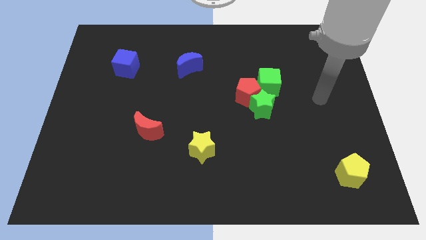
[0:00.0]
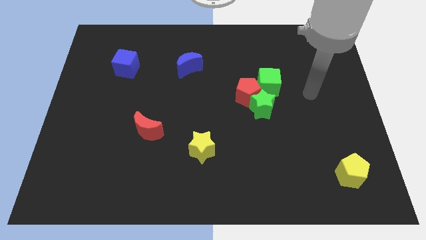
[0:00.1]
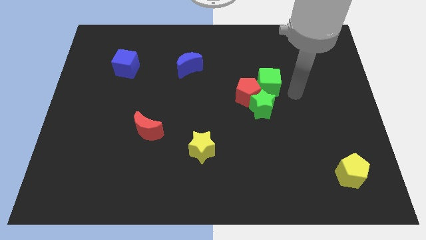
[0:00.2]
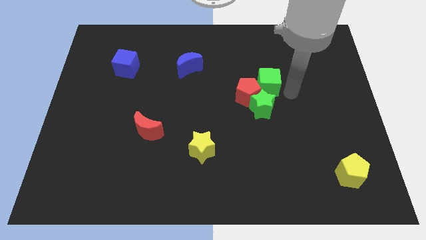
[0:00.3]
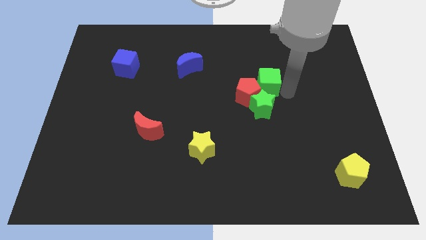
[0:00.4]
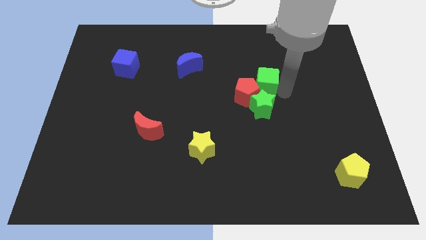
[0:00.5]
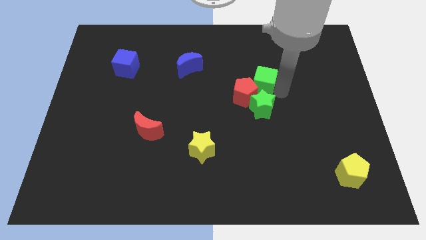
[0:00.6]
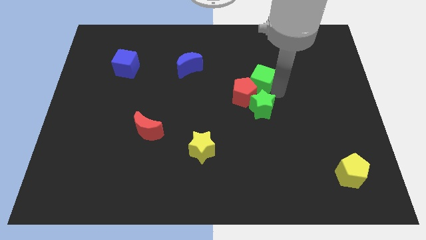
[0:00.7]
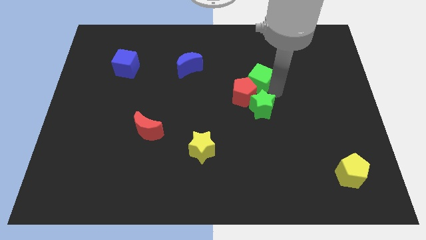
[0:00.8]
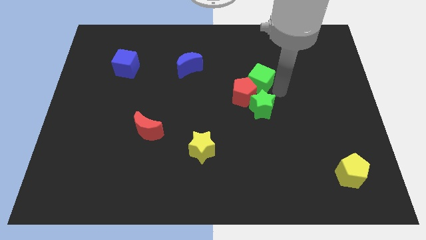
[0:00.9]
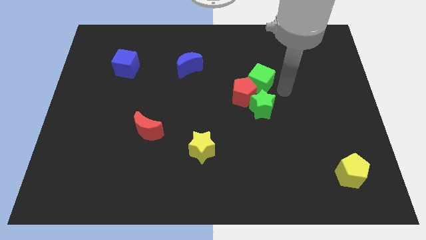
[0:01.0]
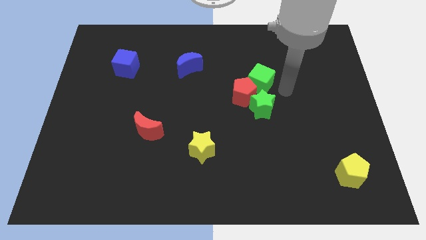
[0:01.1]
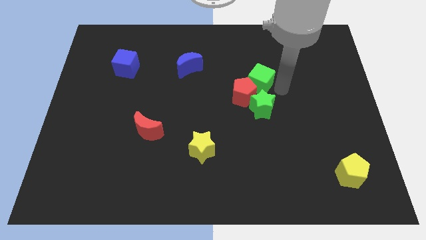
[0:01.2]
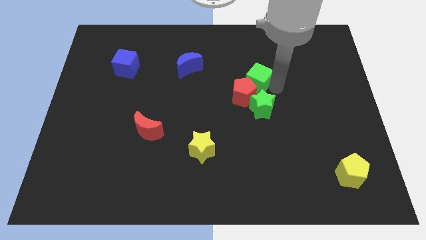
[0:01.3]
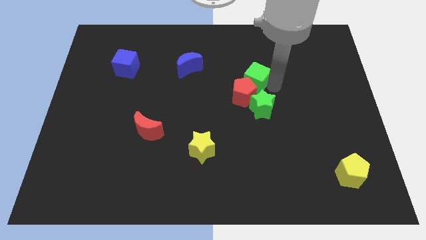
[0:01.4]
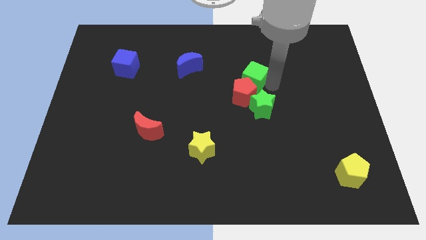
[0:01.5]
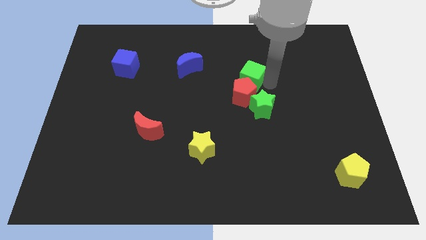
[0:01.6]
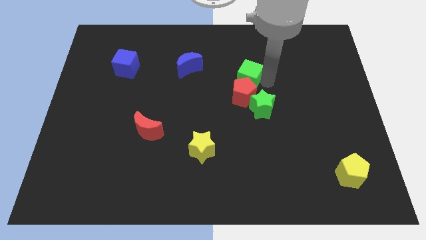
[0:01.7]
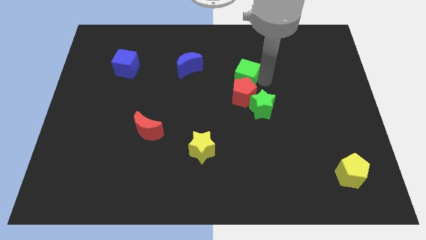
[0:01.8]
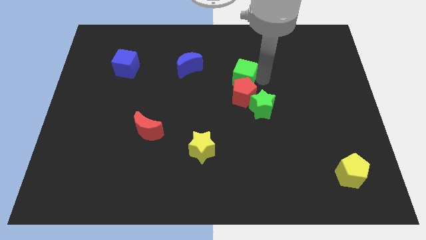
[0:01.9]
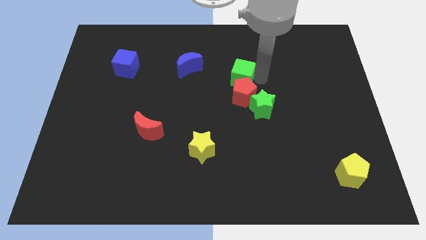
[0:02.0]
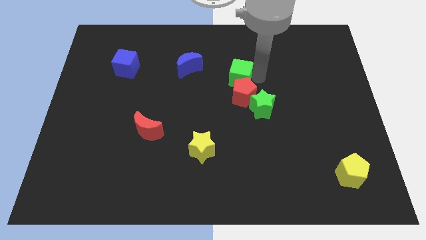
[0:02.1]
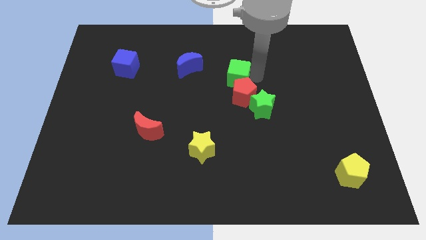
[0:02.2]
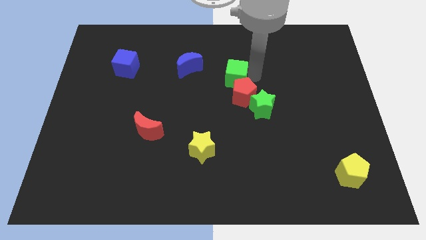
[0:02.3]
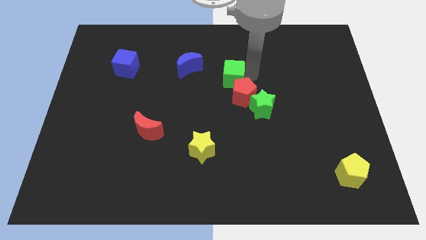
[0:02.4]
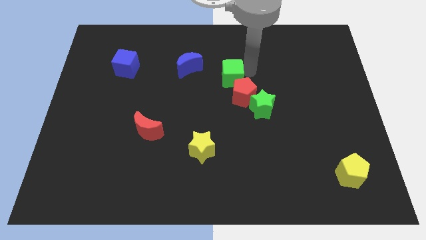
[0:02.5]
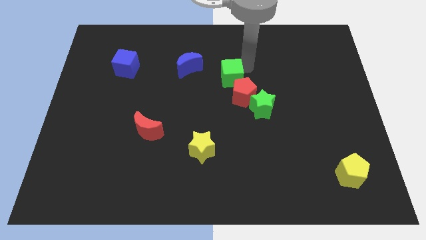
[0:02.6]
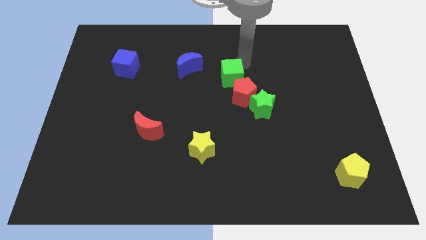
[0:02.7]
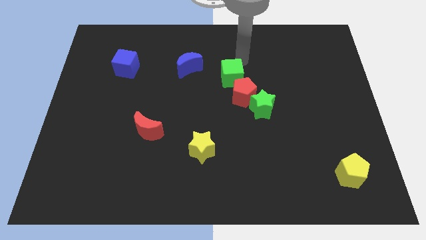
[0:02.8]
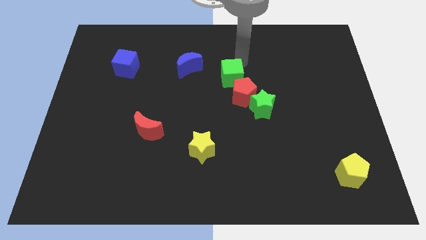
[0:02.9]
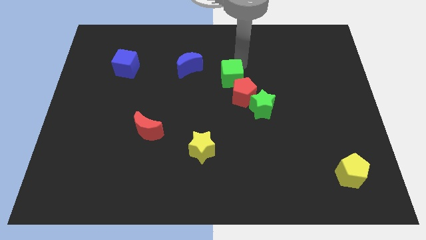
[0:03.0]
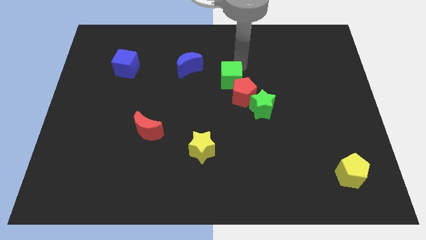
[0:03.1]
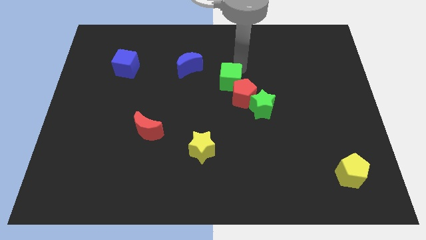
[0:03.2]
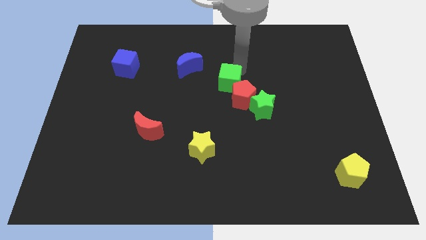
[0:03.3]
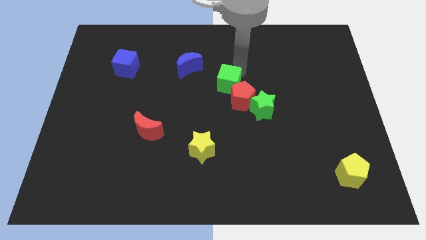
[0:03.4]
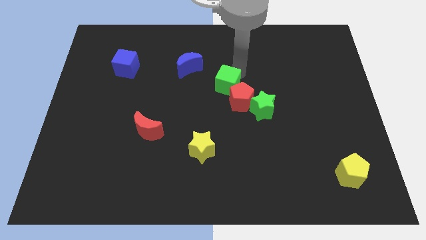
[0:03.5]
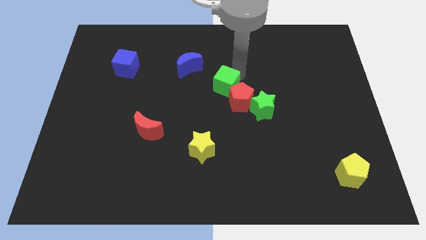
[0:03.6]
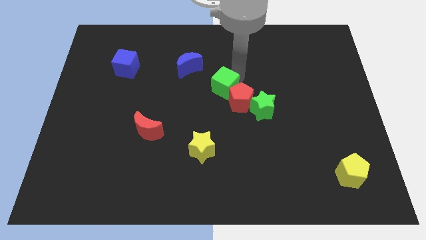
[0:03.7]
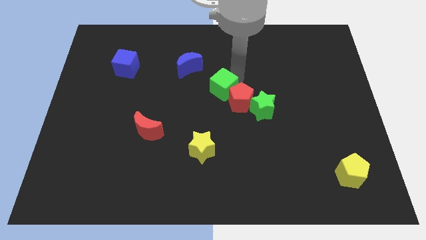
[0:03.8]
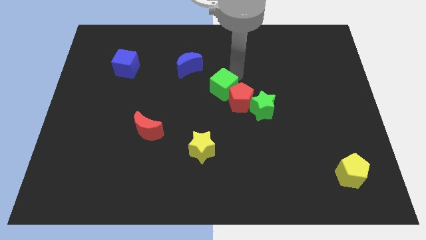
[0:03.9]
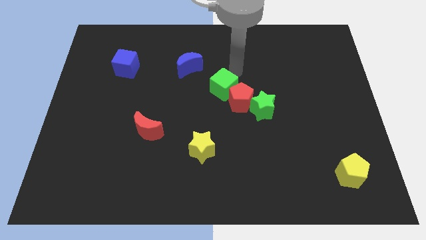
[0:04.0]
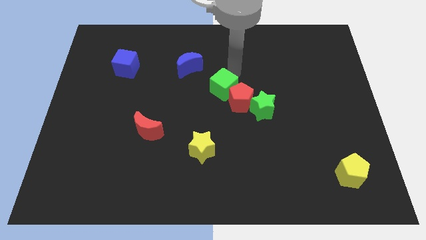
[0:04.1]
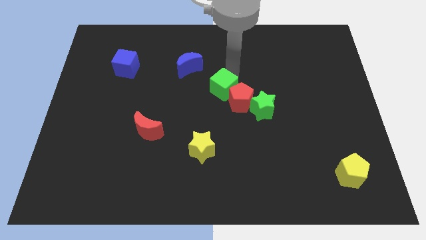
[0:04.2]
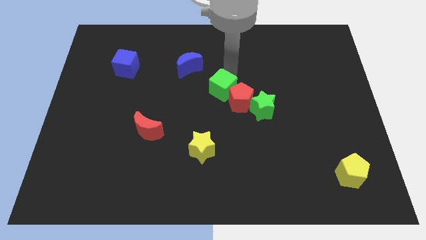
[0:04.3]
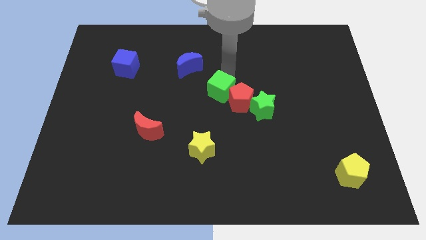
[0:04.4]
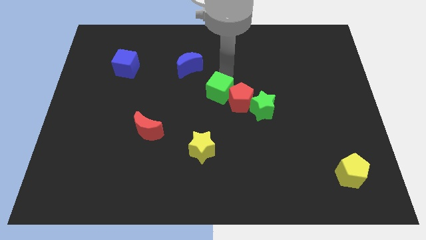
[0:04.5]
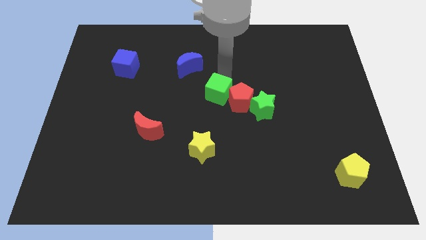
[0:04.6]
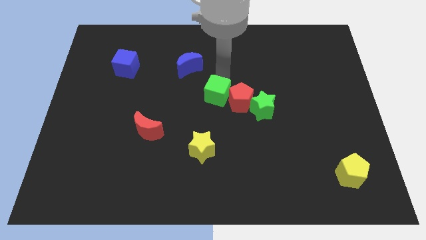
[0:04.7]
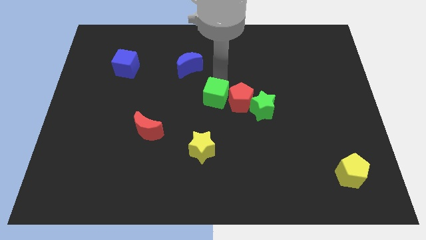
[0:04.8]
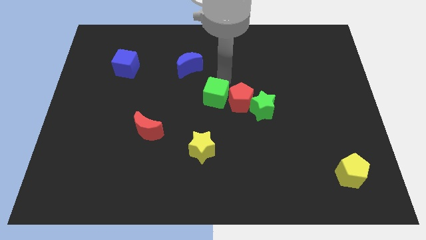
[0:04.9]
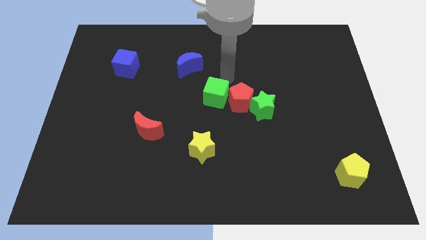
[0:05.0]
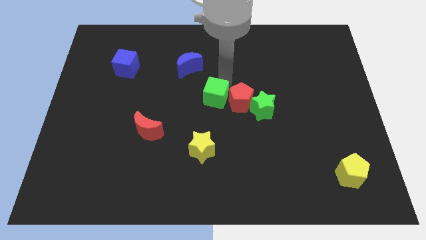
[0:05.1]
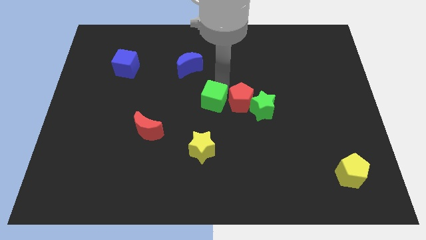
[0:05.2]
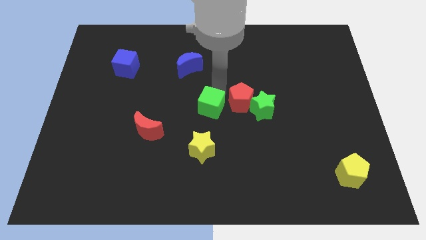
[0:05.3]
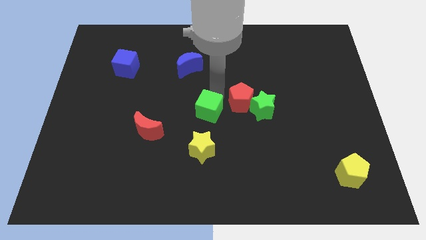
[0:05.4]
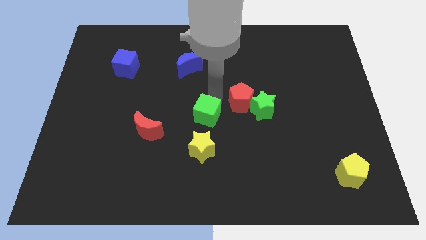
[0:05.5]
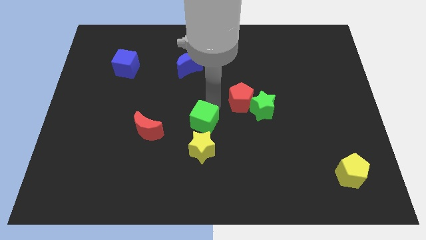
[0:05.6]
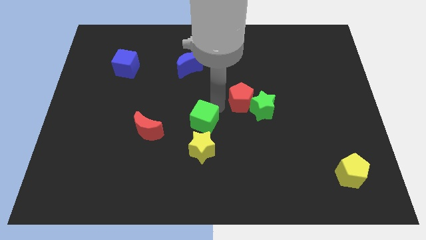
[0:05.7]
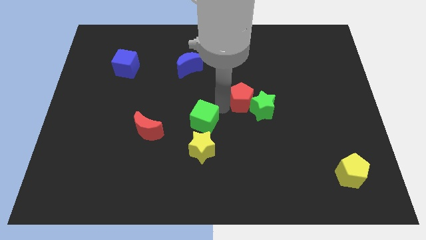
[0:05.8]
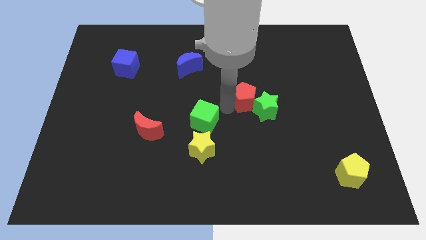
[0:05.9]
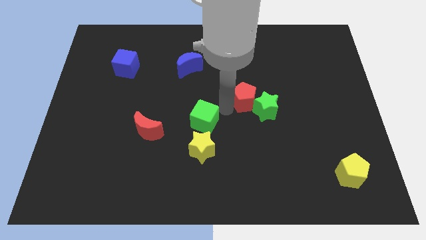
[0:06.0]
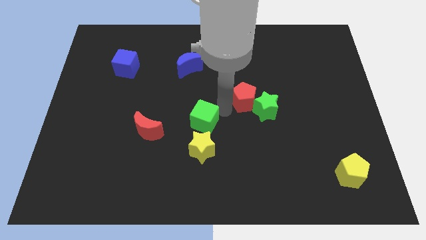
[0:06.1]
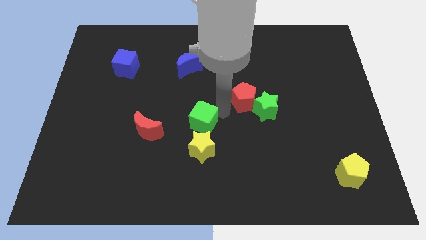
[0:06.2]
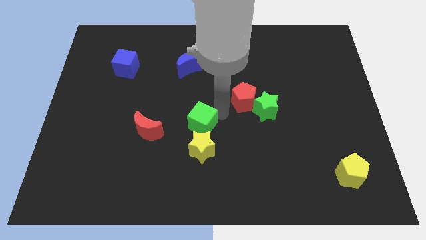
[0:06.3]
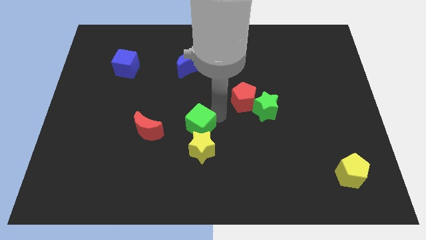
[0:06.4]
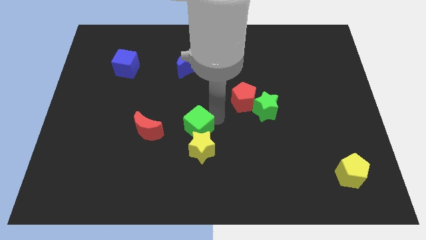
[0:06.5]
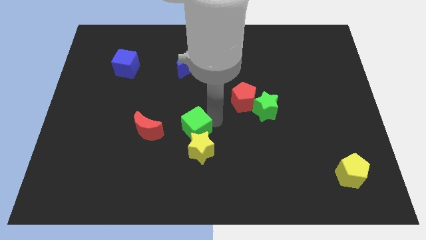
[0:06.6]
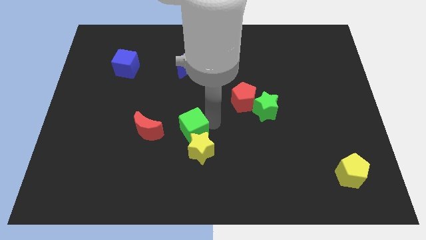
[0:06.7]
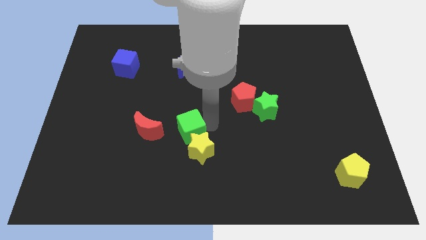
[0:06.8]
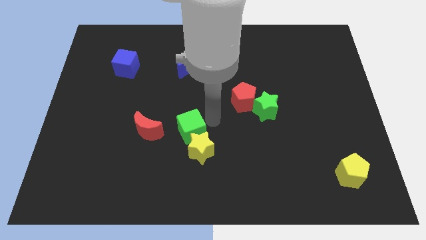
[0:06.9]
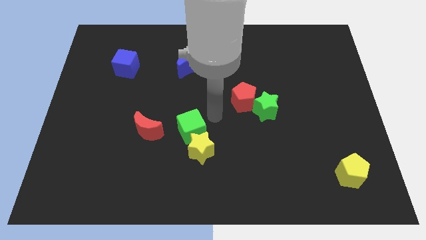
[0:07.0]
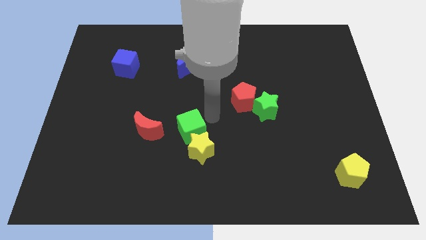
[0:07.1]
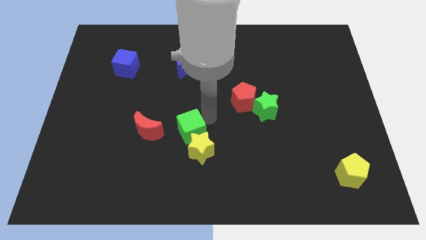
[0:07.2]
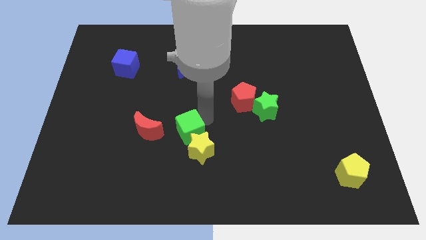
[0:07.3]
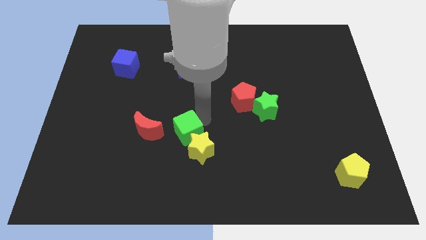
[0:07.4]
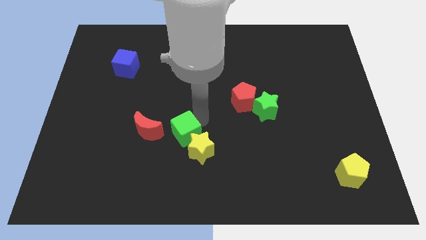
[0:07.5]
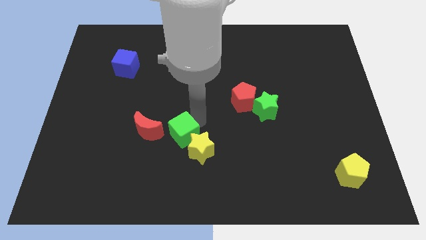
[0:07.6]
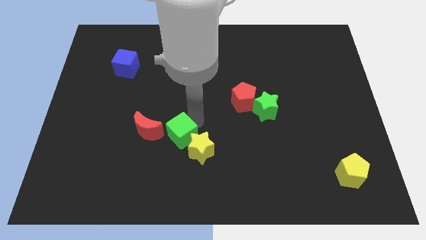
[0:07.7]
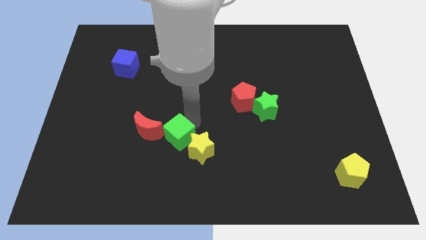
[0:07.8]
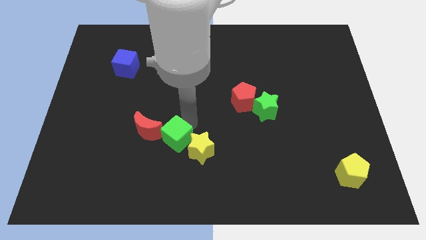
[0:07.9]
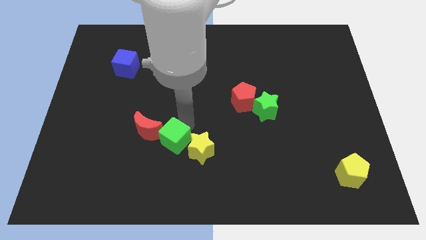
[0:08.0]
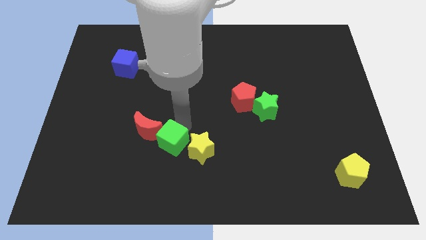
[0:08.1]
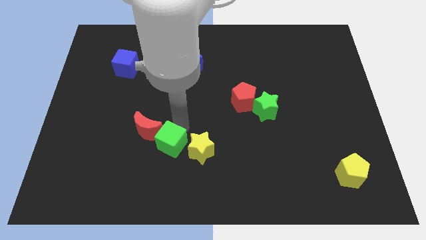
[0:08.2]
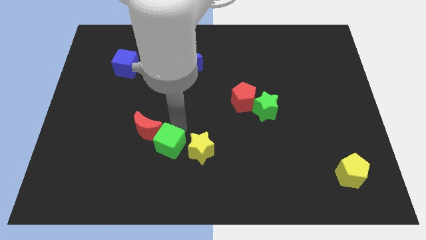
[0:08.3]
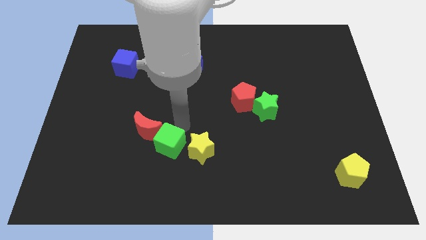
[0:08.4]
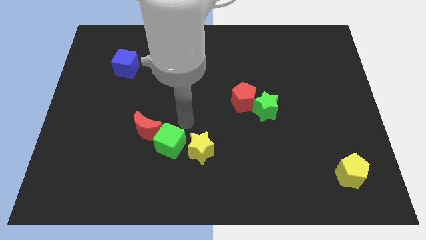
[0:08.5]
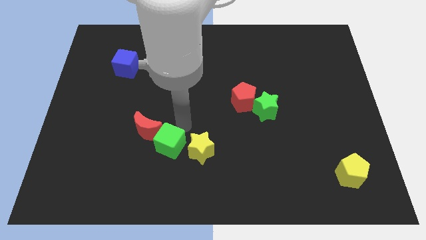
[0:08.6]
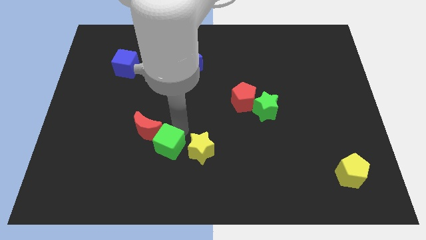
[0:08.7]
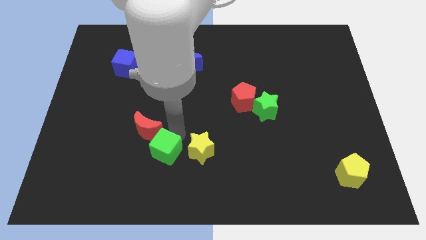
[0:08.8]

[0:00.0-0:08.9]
push the green cube below the red moon
